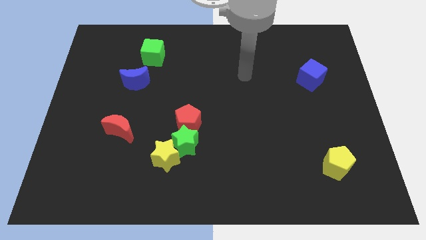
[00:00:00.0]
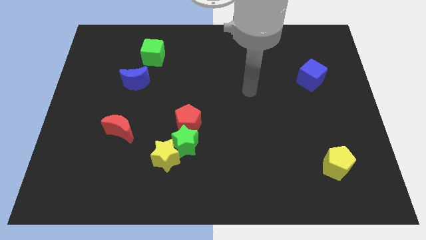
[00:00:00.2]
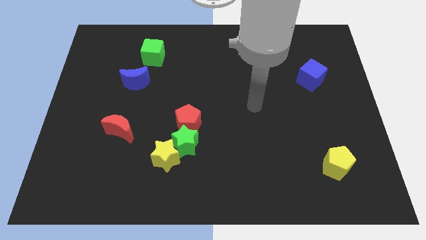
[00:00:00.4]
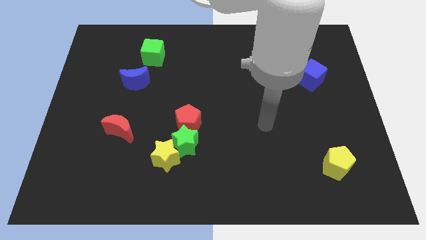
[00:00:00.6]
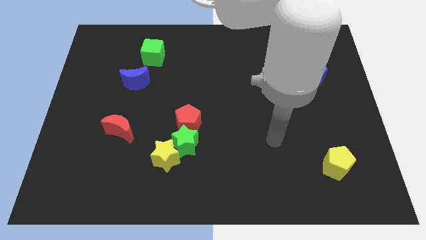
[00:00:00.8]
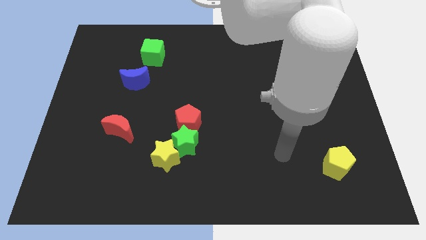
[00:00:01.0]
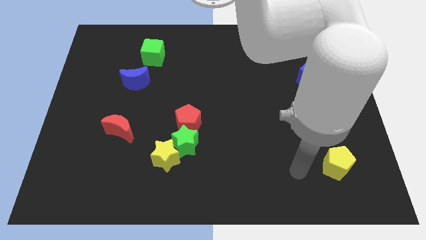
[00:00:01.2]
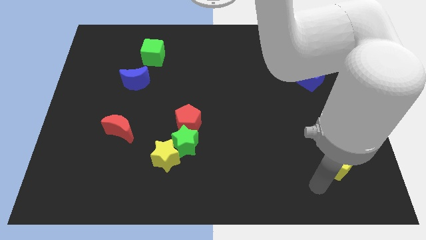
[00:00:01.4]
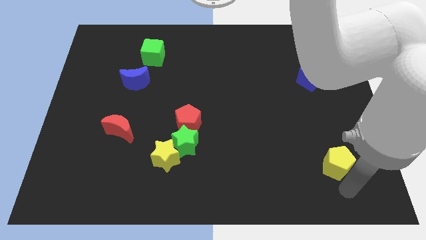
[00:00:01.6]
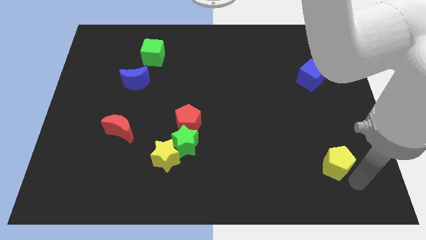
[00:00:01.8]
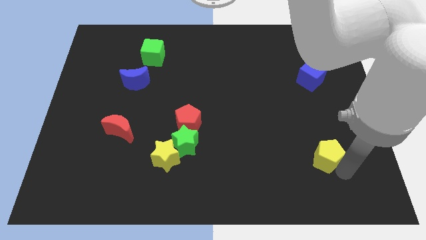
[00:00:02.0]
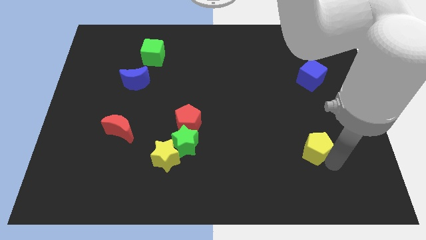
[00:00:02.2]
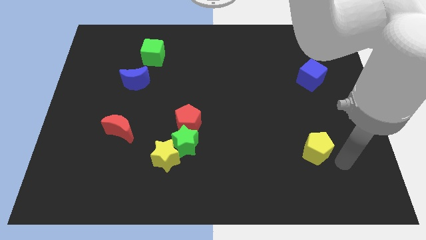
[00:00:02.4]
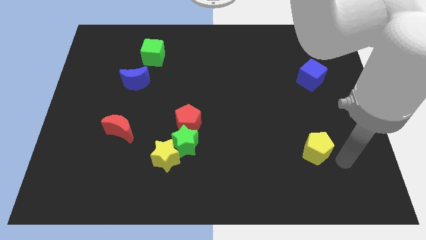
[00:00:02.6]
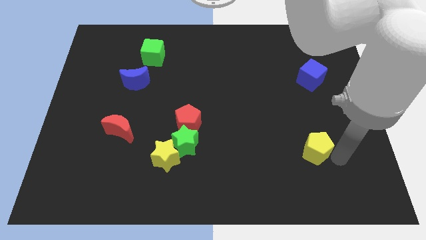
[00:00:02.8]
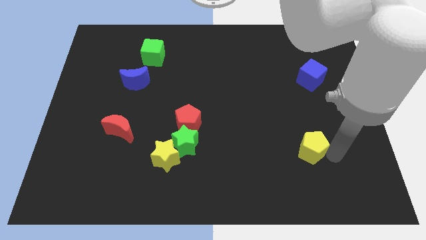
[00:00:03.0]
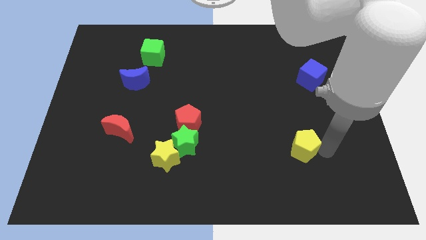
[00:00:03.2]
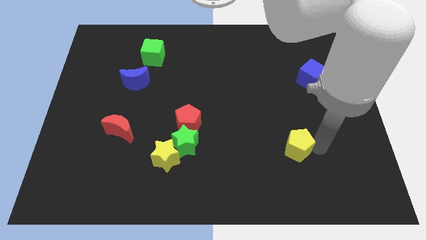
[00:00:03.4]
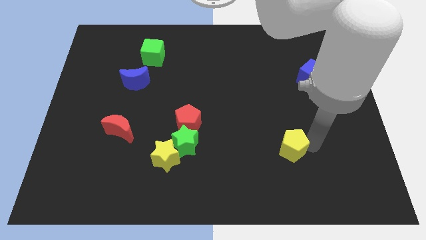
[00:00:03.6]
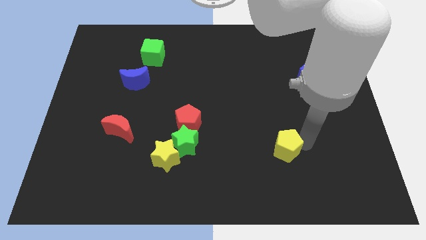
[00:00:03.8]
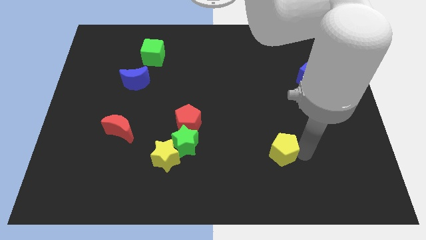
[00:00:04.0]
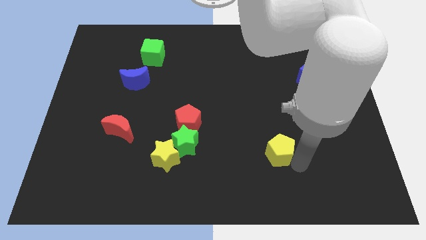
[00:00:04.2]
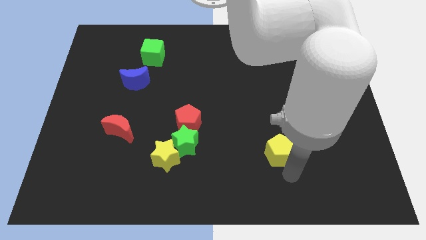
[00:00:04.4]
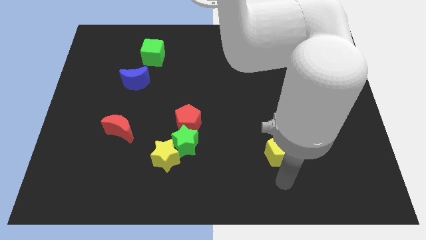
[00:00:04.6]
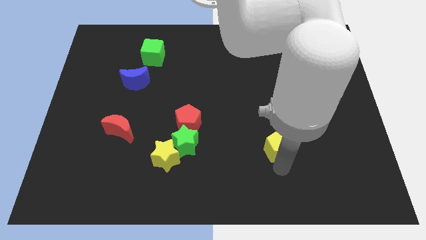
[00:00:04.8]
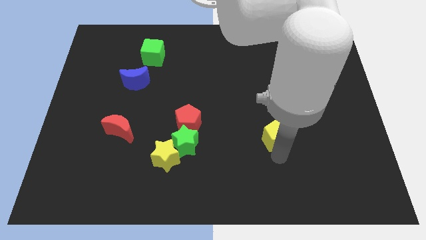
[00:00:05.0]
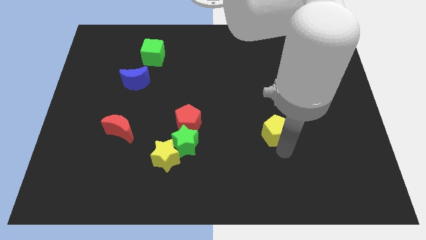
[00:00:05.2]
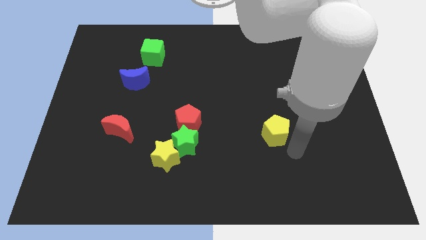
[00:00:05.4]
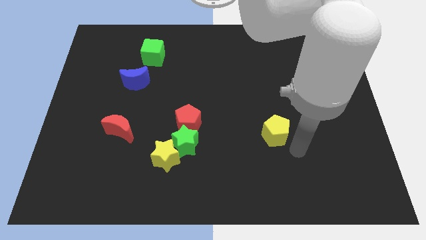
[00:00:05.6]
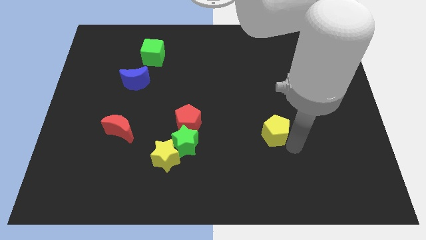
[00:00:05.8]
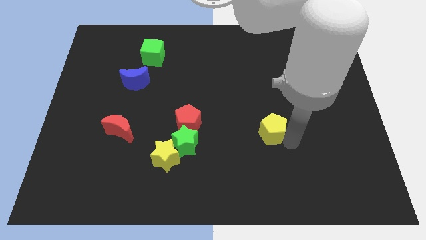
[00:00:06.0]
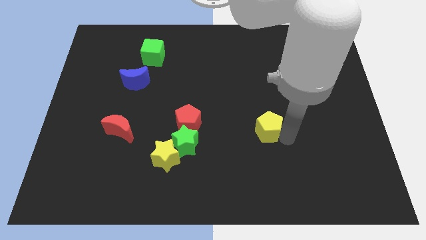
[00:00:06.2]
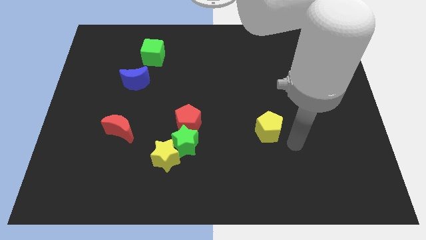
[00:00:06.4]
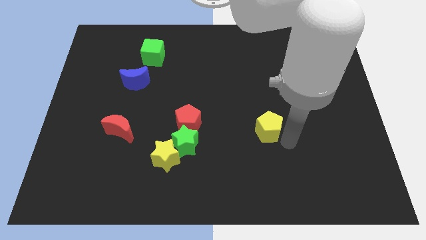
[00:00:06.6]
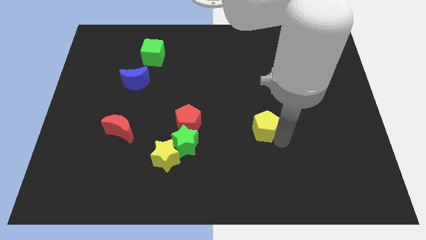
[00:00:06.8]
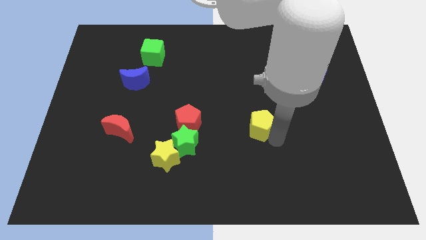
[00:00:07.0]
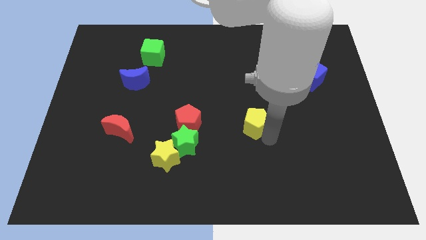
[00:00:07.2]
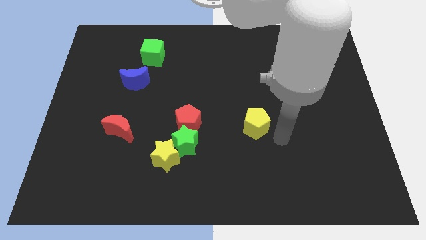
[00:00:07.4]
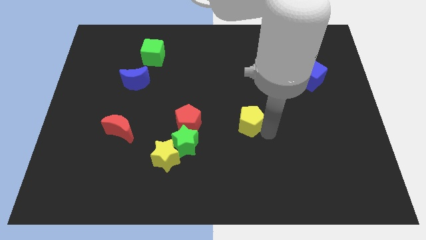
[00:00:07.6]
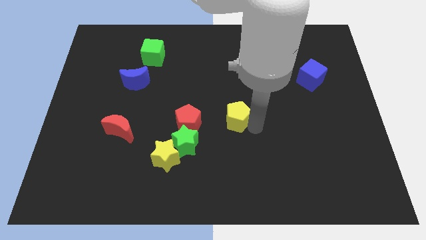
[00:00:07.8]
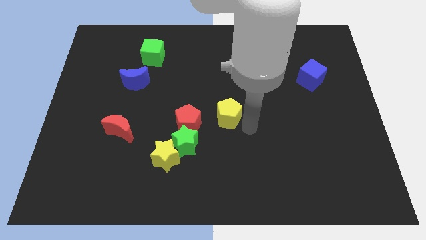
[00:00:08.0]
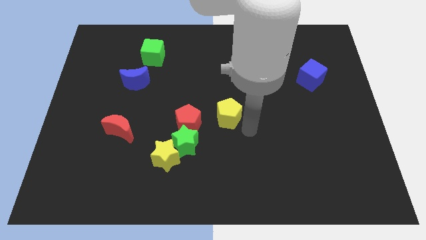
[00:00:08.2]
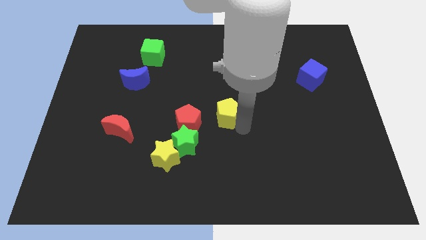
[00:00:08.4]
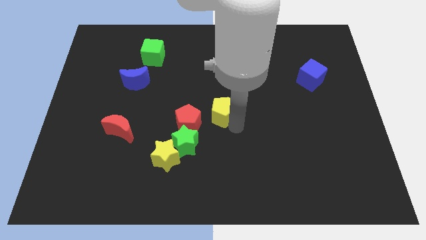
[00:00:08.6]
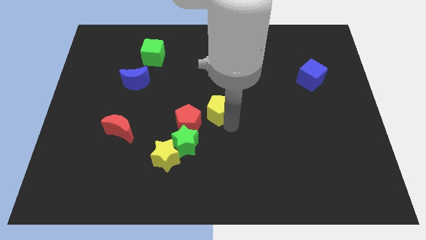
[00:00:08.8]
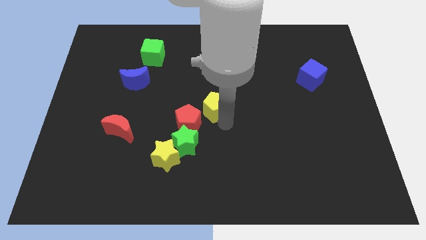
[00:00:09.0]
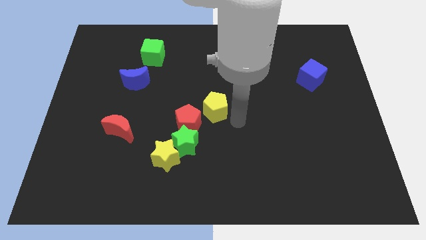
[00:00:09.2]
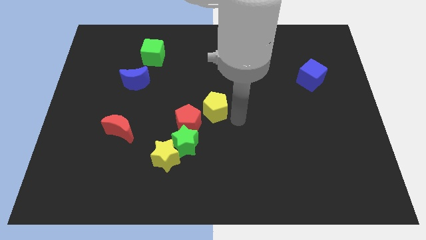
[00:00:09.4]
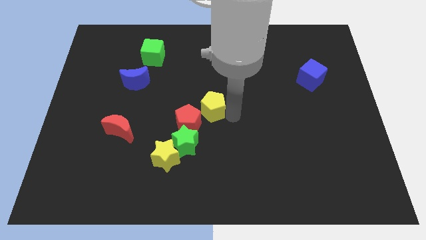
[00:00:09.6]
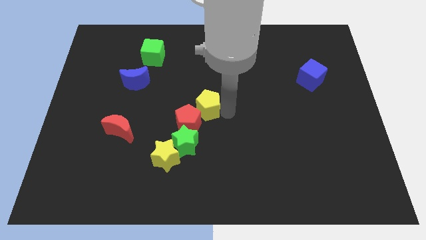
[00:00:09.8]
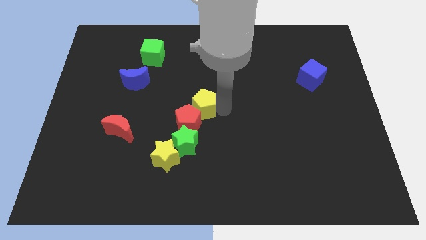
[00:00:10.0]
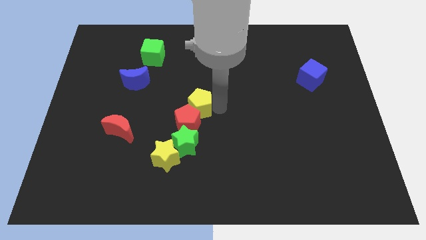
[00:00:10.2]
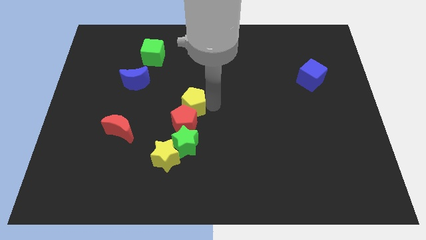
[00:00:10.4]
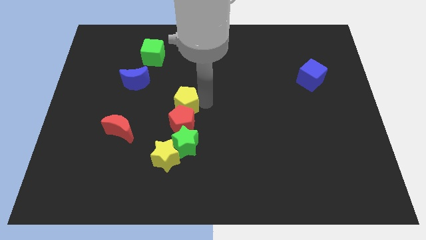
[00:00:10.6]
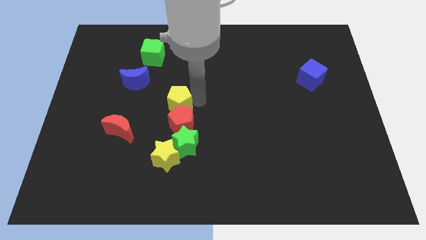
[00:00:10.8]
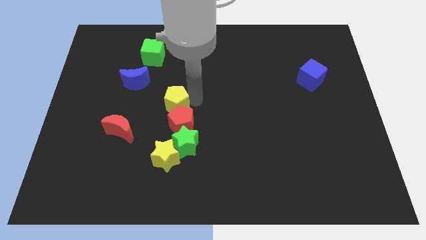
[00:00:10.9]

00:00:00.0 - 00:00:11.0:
slide the yellow pentagon to the bottom right side of the blue moon

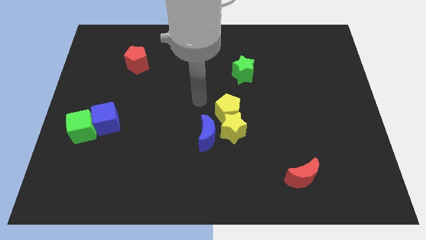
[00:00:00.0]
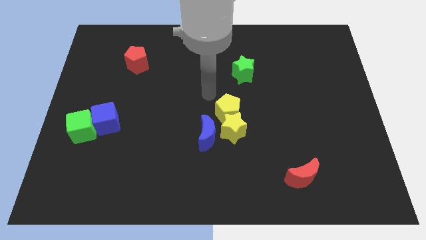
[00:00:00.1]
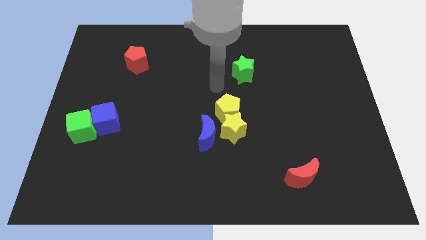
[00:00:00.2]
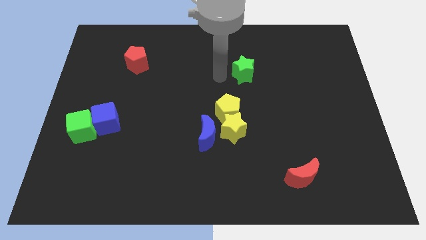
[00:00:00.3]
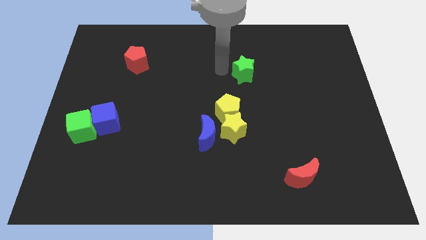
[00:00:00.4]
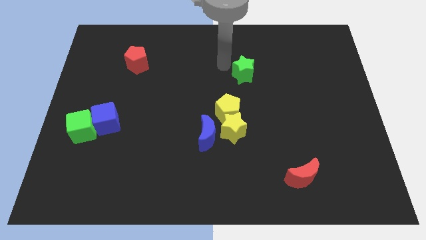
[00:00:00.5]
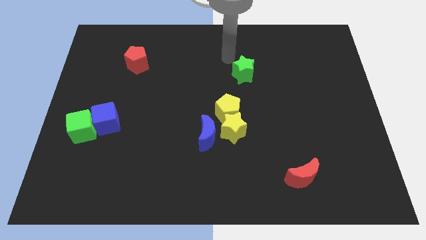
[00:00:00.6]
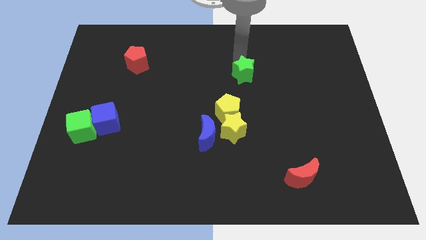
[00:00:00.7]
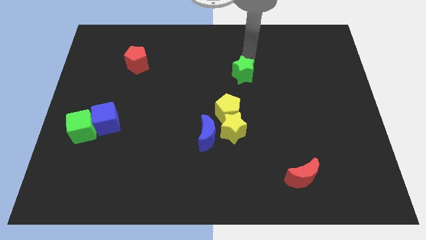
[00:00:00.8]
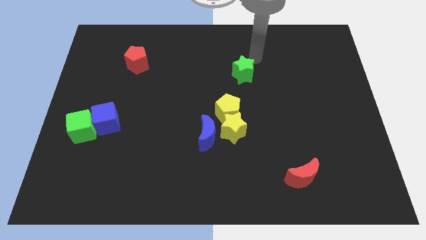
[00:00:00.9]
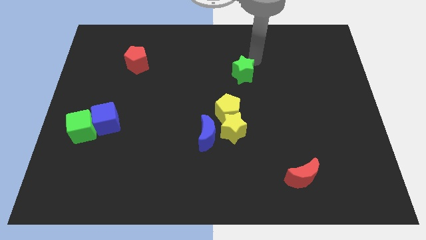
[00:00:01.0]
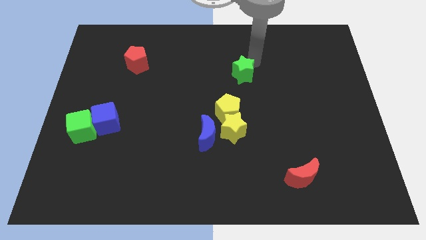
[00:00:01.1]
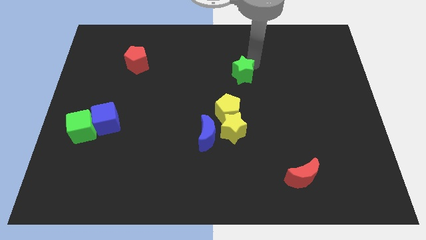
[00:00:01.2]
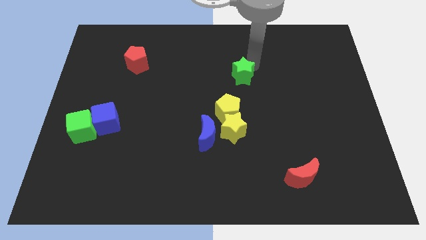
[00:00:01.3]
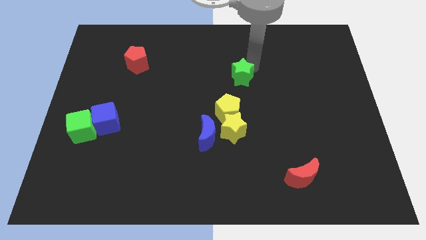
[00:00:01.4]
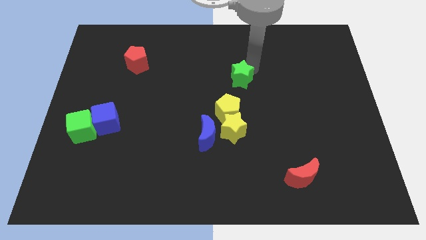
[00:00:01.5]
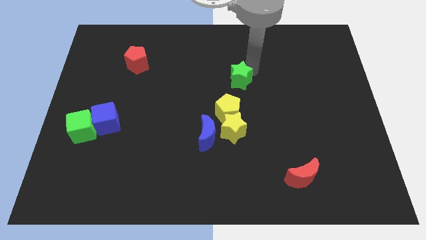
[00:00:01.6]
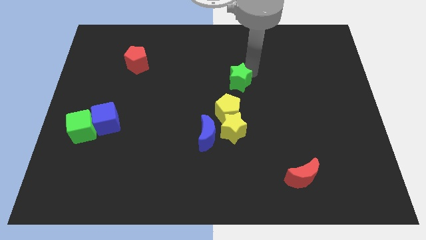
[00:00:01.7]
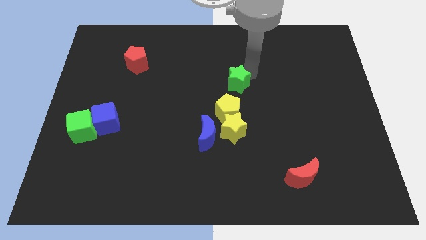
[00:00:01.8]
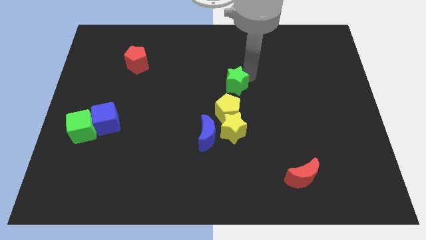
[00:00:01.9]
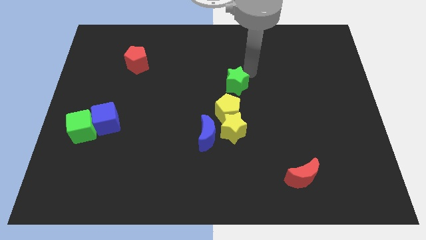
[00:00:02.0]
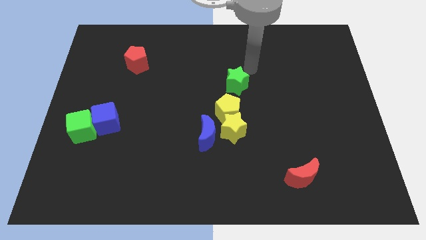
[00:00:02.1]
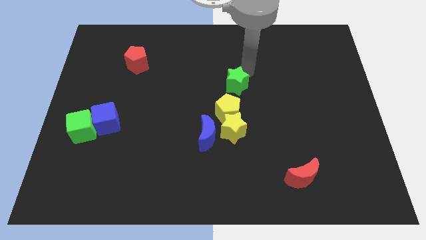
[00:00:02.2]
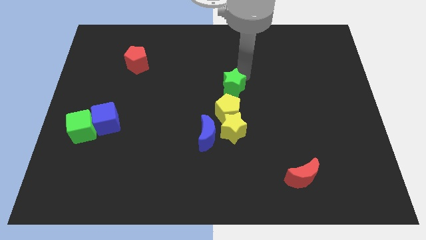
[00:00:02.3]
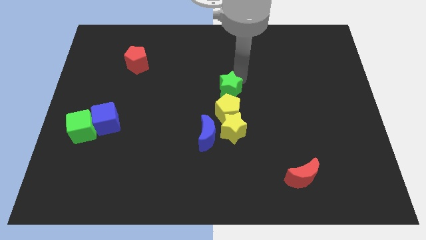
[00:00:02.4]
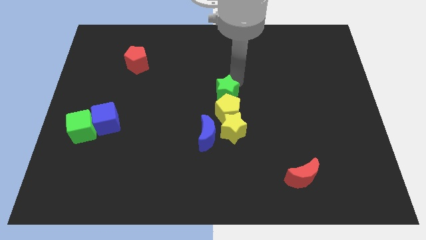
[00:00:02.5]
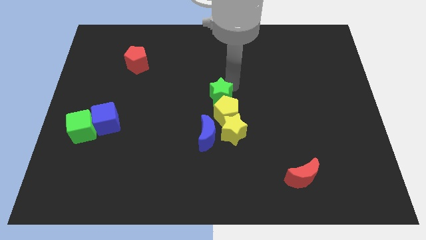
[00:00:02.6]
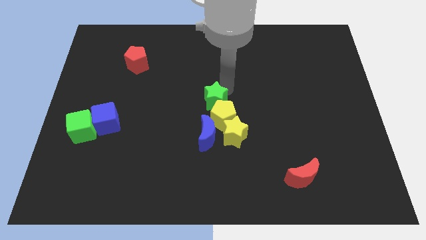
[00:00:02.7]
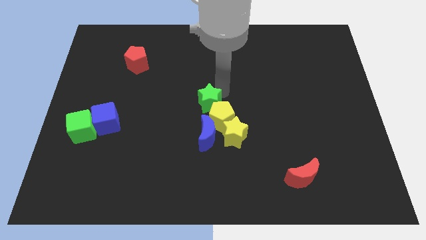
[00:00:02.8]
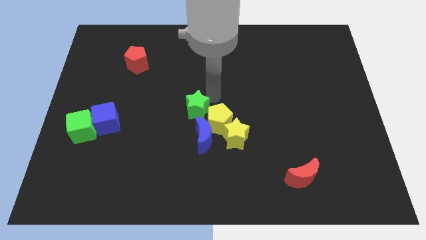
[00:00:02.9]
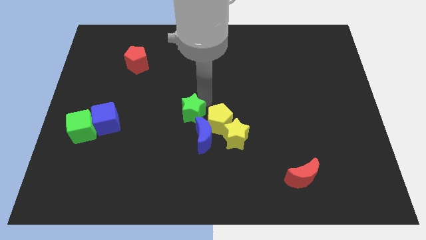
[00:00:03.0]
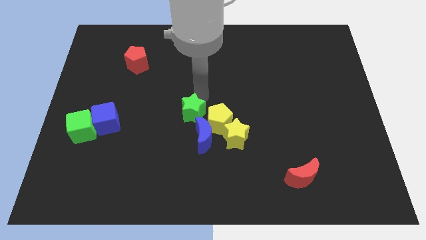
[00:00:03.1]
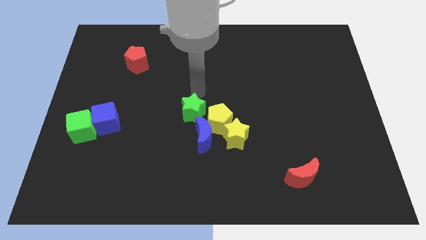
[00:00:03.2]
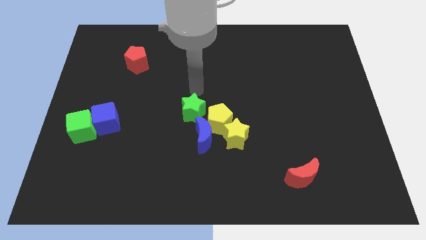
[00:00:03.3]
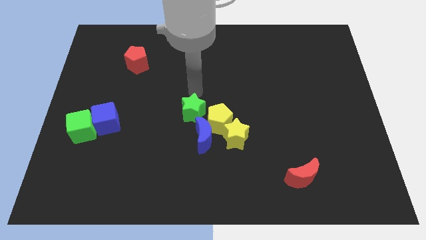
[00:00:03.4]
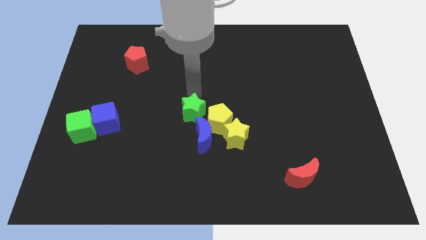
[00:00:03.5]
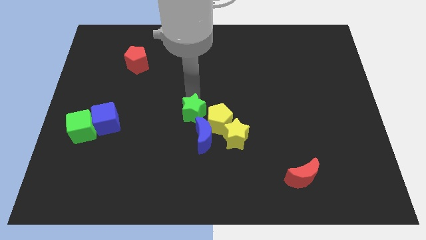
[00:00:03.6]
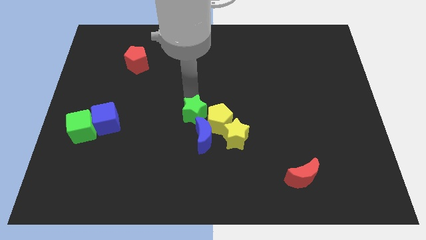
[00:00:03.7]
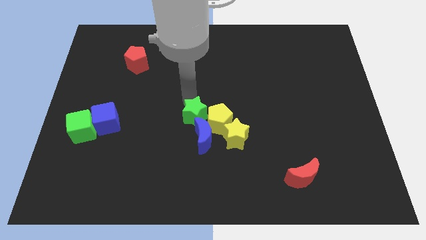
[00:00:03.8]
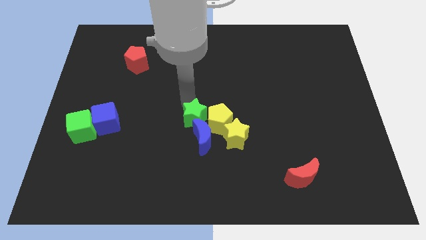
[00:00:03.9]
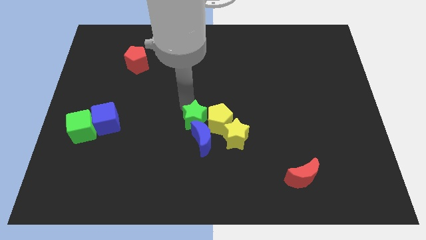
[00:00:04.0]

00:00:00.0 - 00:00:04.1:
slide the green star left of the yellow star
